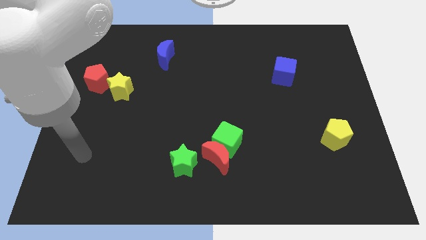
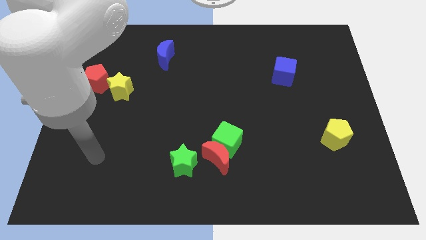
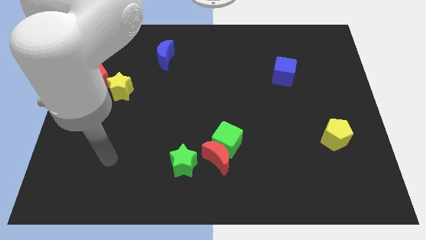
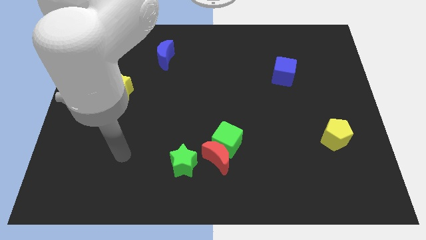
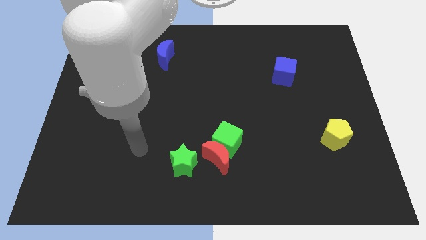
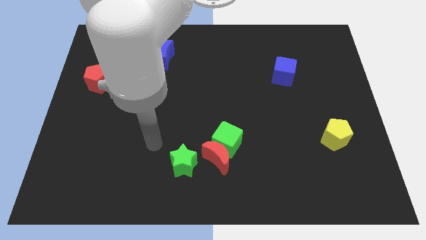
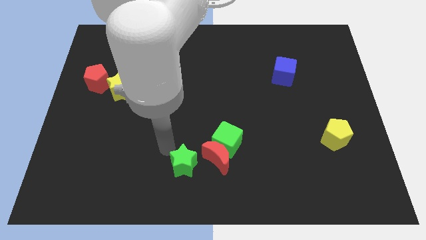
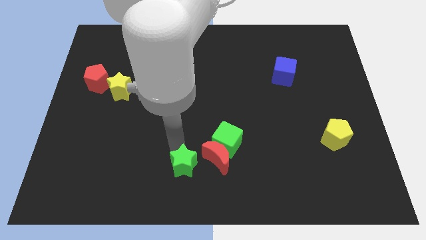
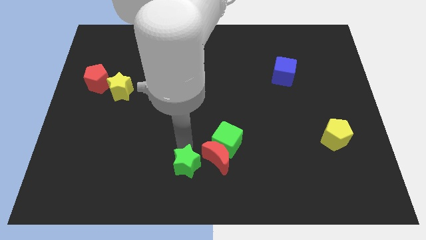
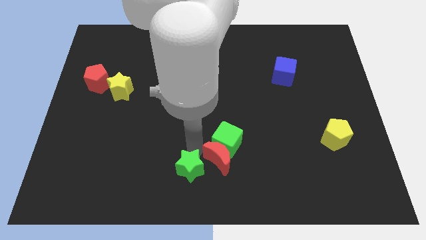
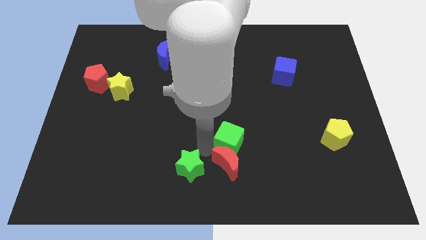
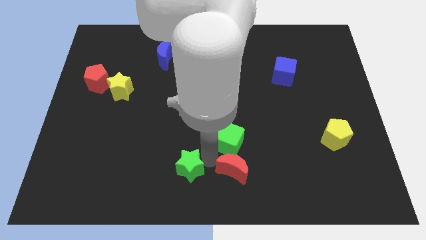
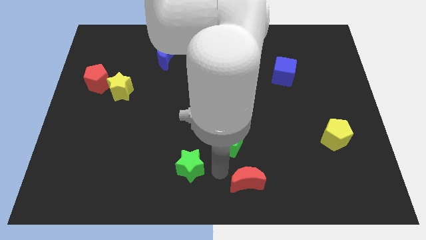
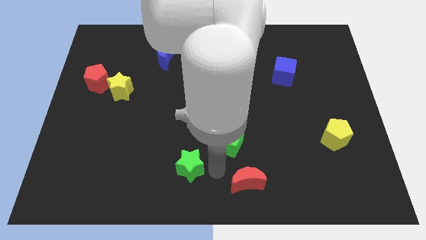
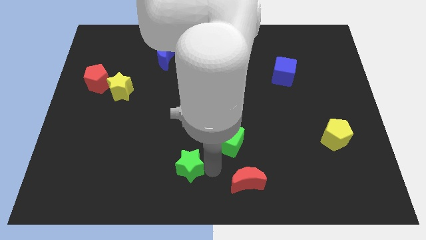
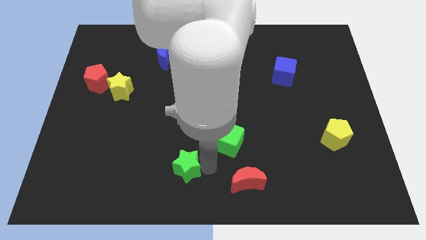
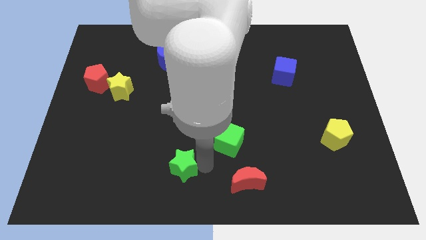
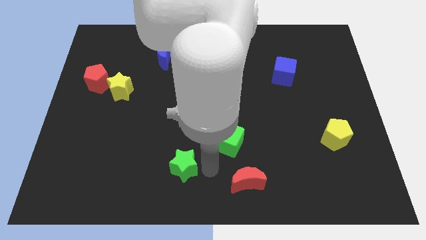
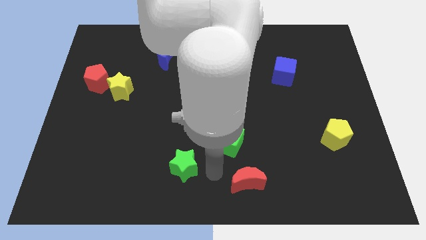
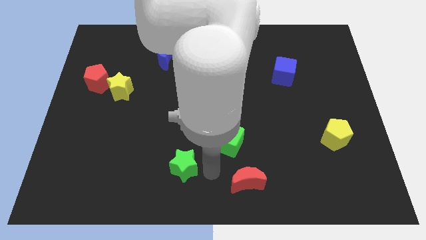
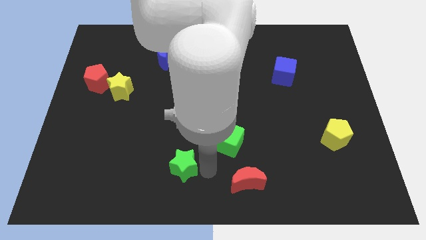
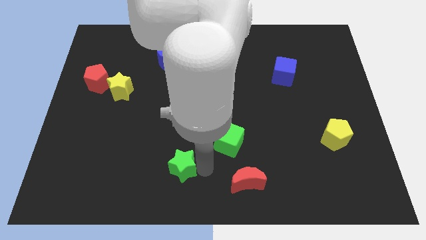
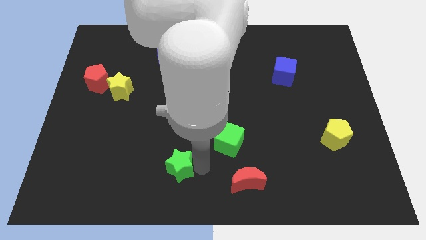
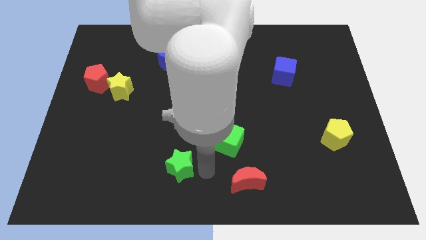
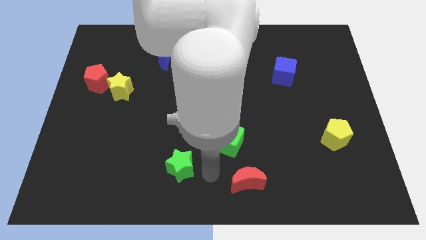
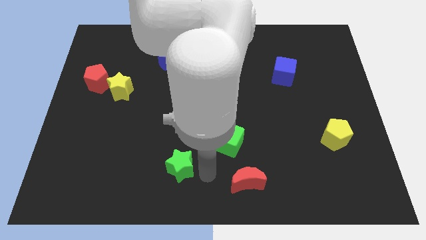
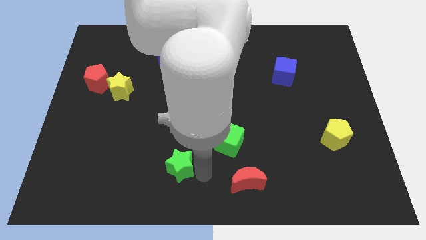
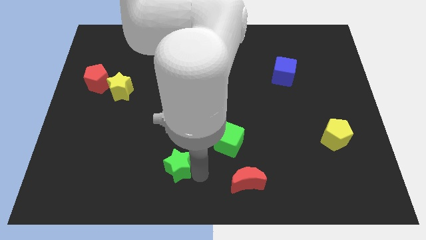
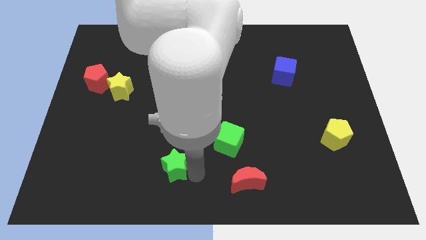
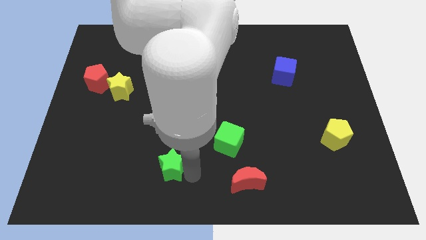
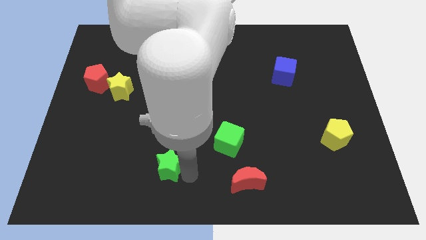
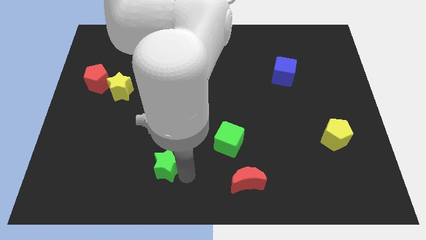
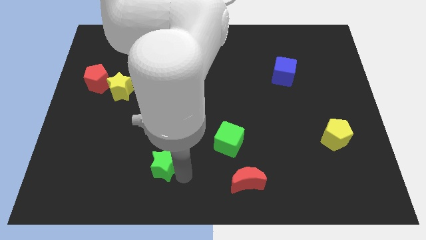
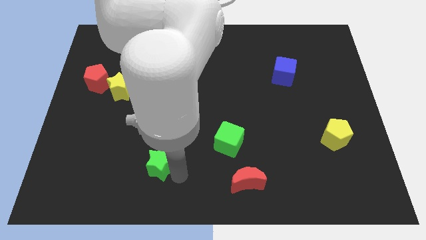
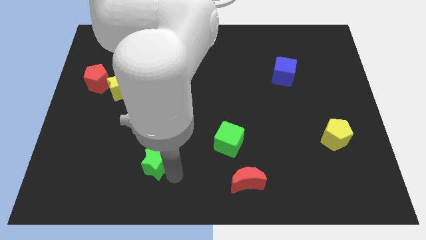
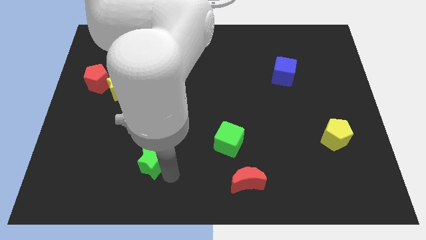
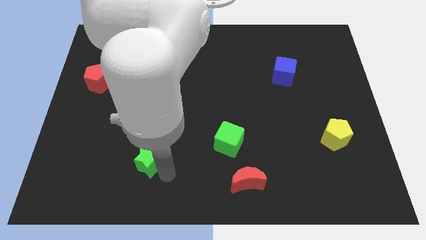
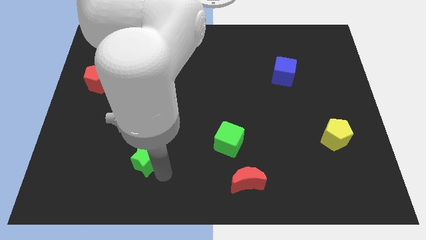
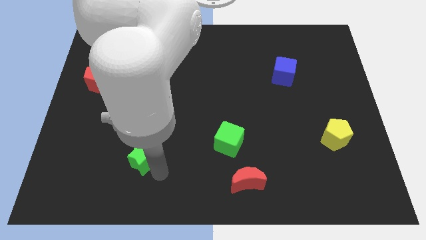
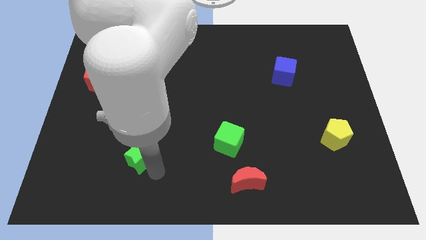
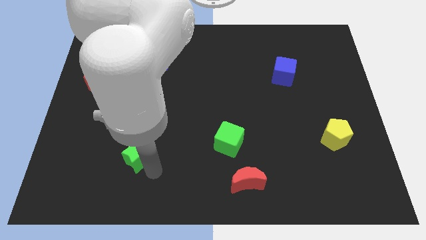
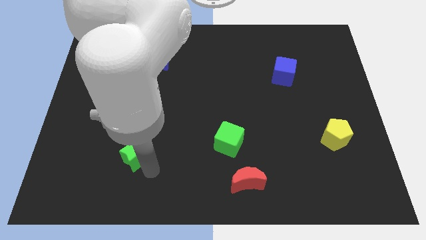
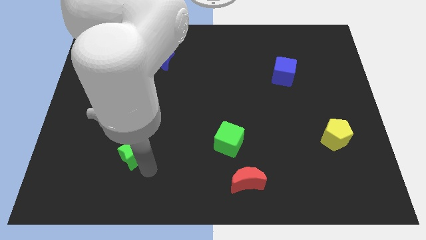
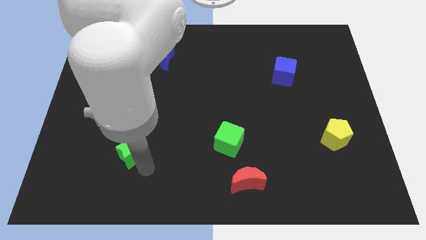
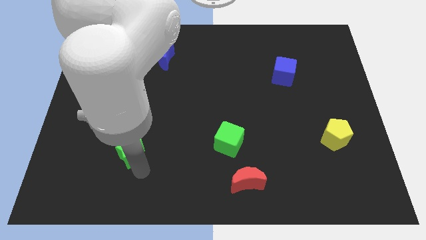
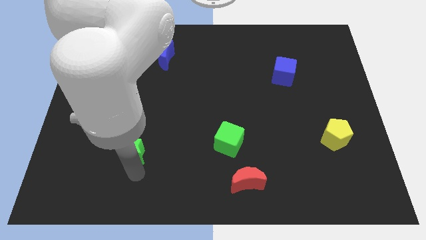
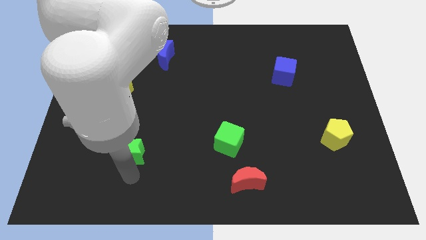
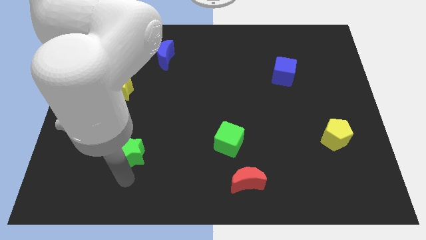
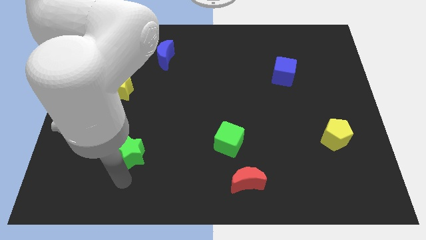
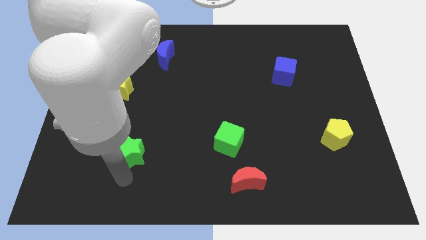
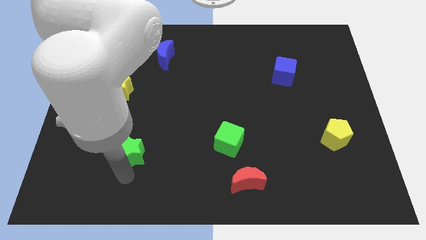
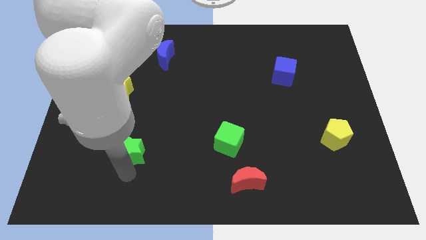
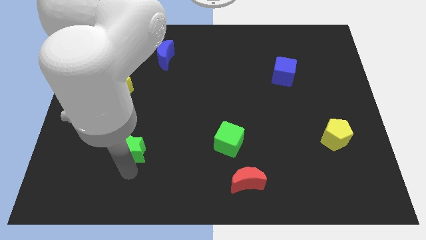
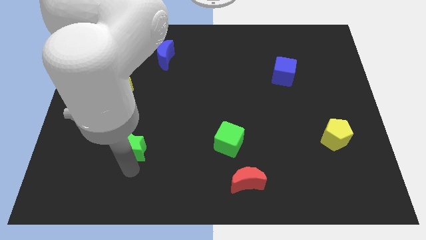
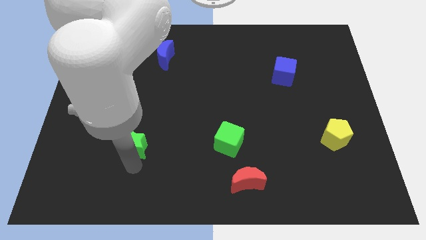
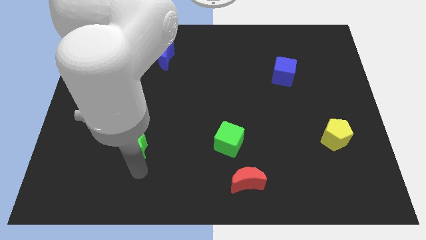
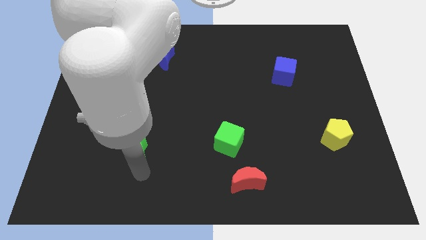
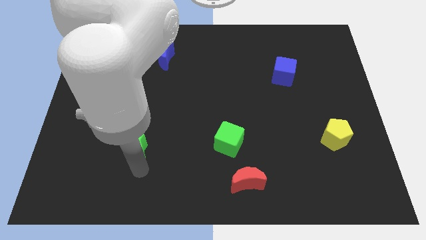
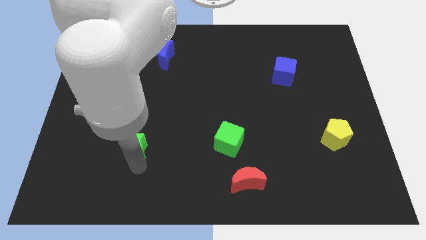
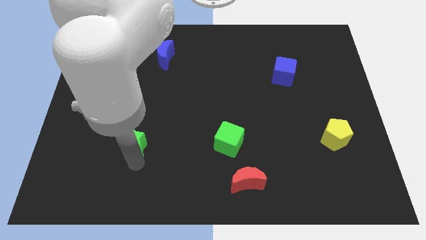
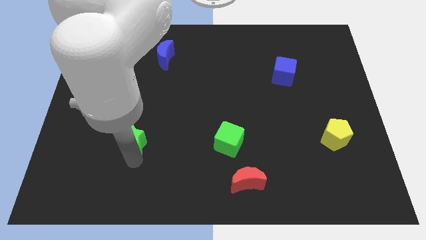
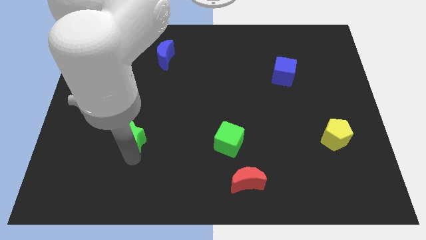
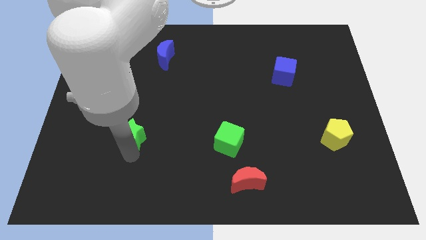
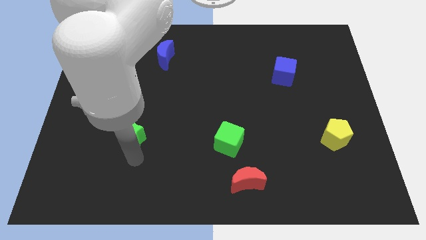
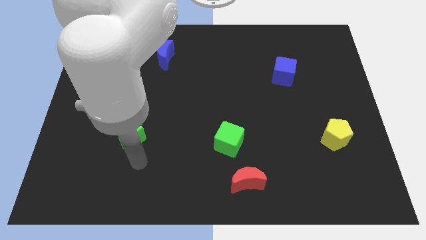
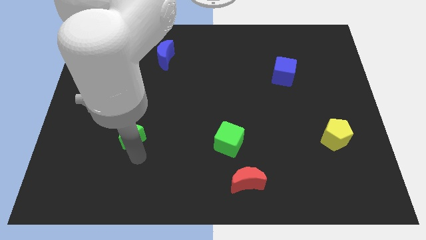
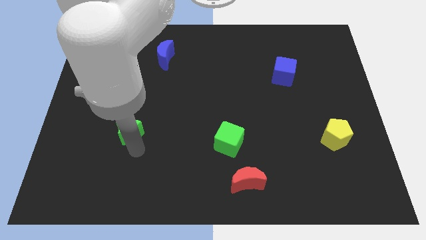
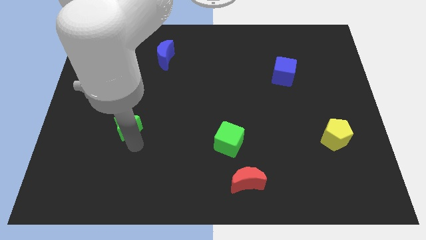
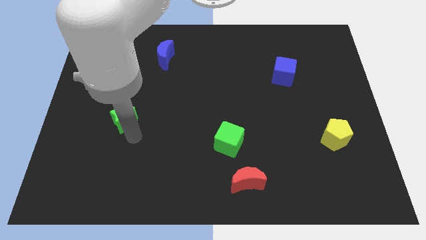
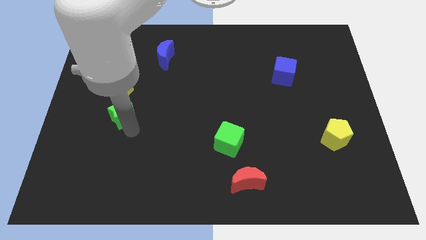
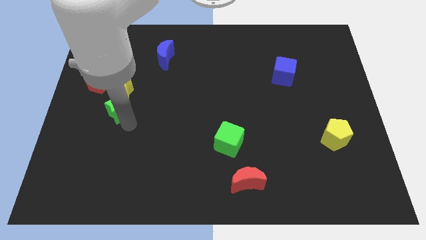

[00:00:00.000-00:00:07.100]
slide the green star diagonally down and to the right of the red pentagon
